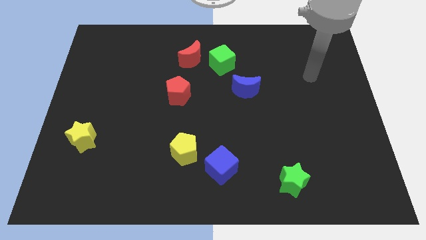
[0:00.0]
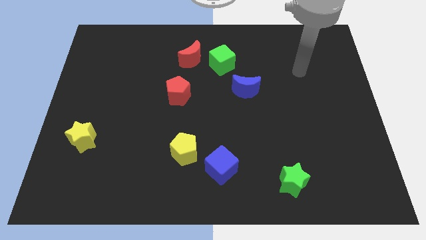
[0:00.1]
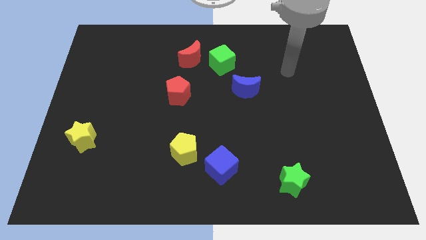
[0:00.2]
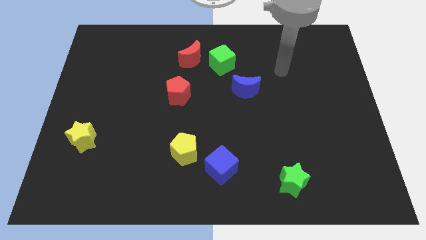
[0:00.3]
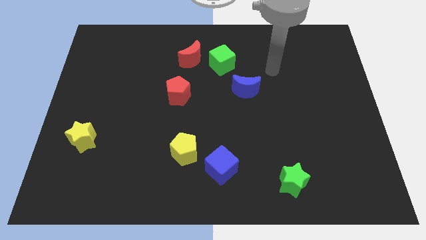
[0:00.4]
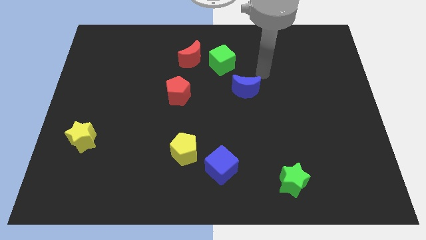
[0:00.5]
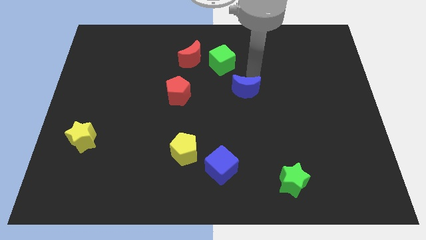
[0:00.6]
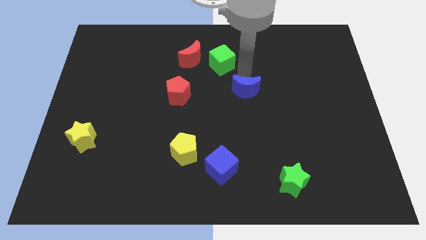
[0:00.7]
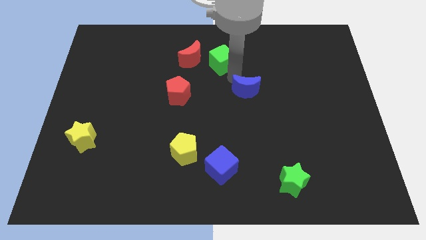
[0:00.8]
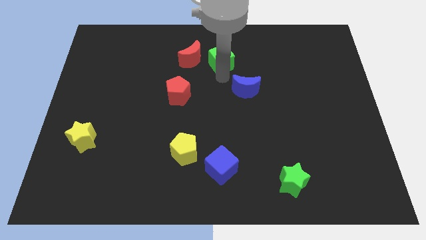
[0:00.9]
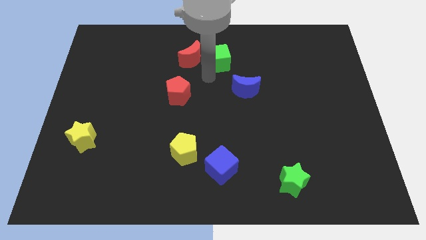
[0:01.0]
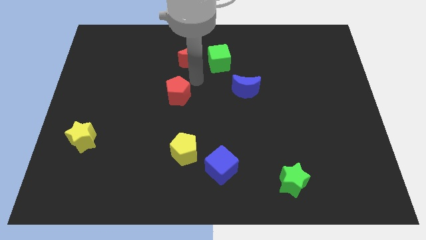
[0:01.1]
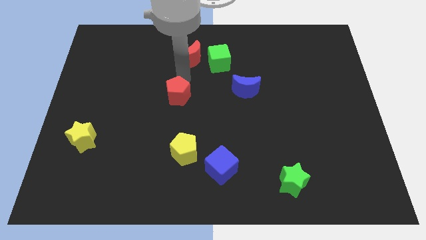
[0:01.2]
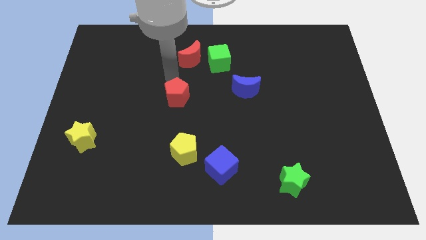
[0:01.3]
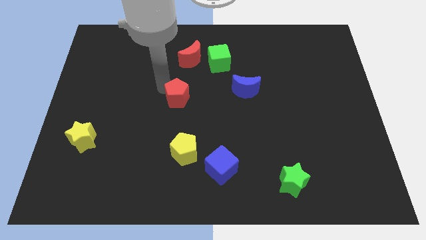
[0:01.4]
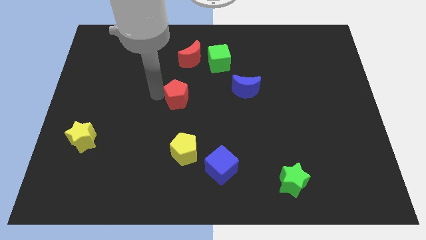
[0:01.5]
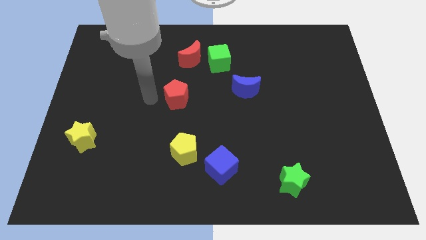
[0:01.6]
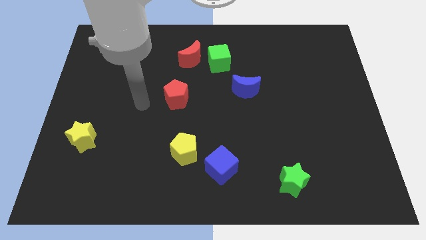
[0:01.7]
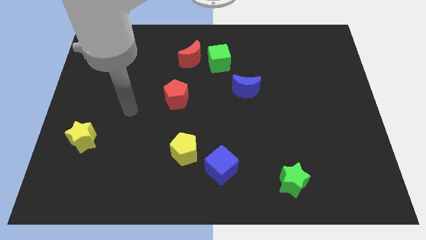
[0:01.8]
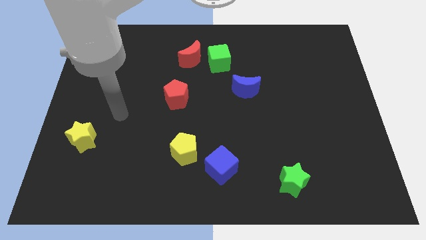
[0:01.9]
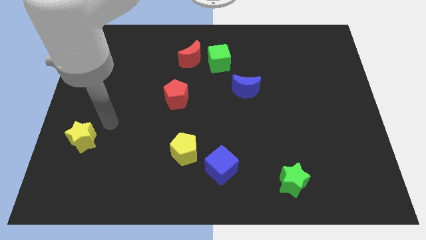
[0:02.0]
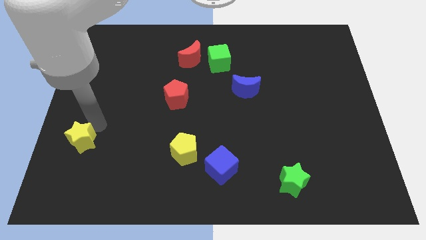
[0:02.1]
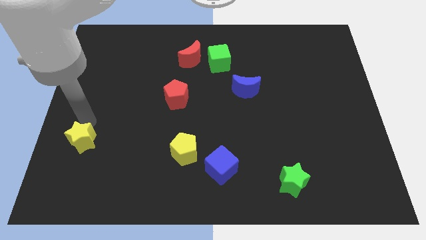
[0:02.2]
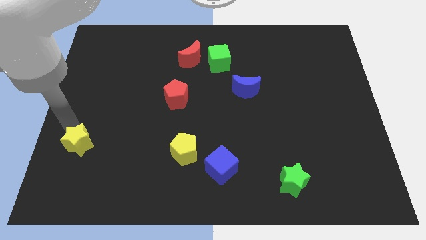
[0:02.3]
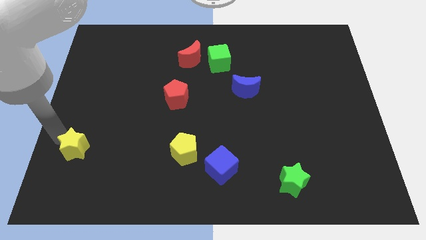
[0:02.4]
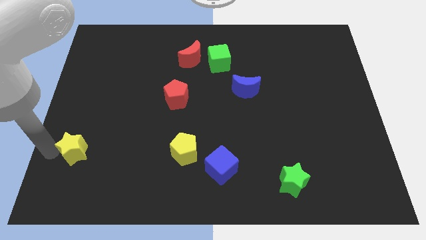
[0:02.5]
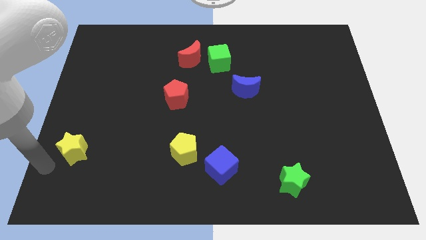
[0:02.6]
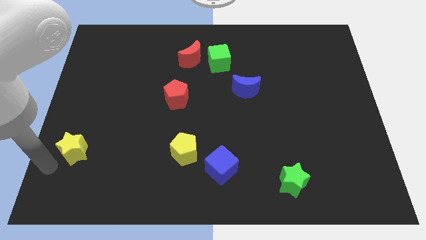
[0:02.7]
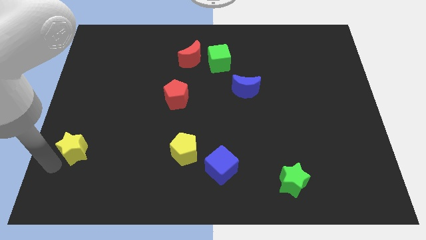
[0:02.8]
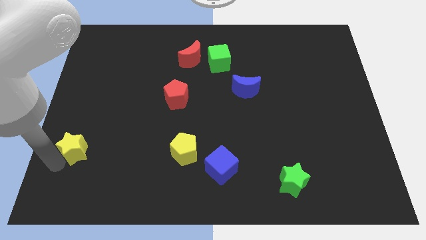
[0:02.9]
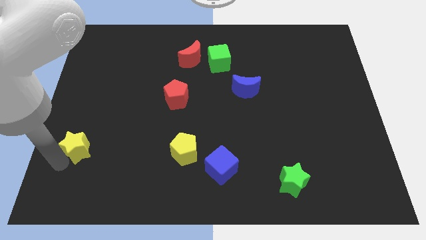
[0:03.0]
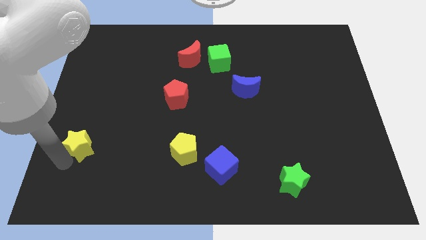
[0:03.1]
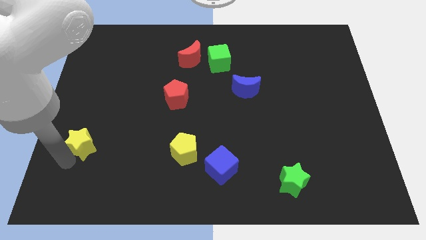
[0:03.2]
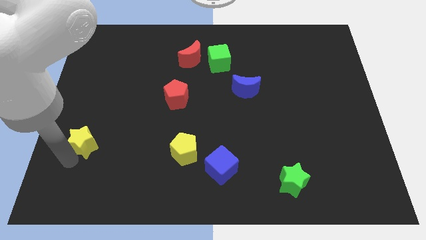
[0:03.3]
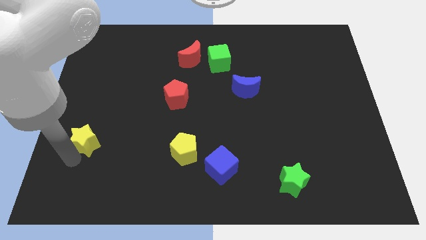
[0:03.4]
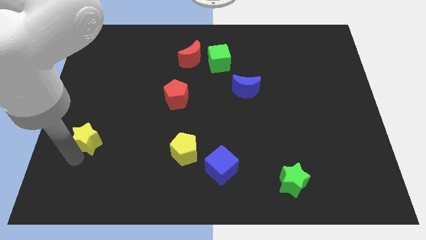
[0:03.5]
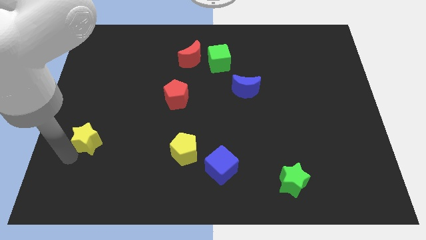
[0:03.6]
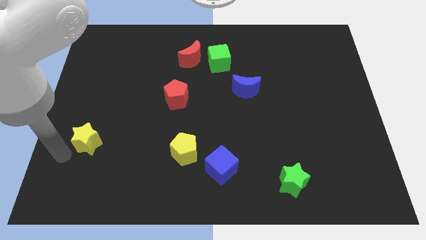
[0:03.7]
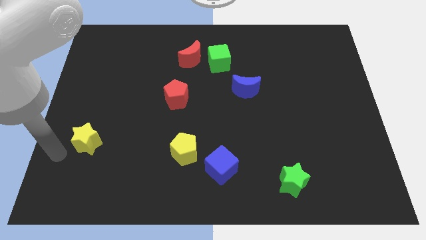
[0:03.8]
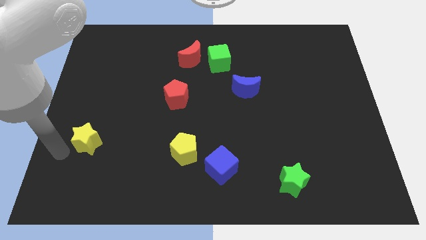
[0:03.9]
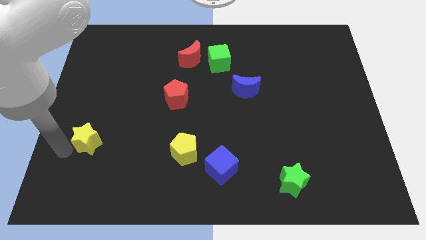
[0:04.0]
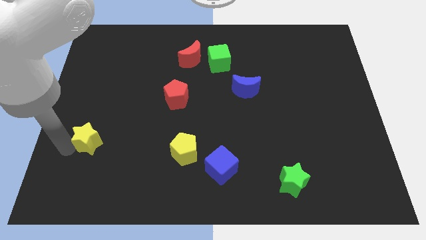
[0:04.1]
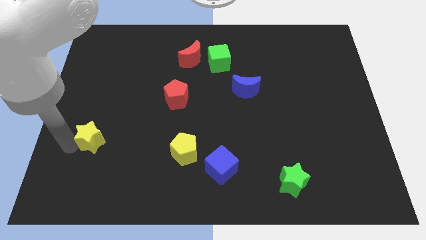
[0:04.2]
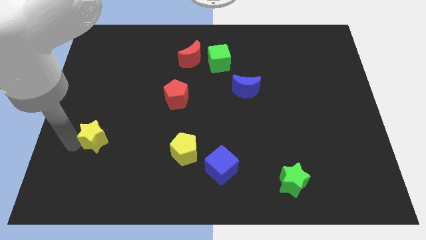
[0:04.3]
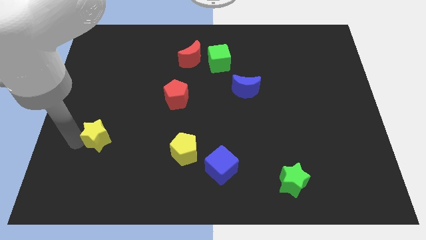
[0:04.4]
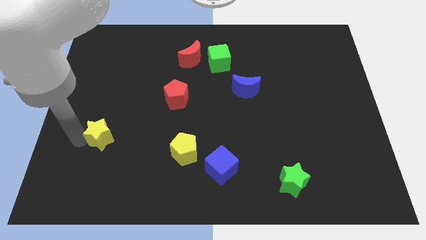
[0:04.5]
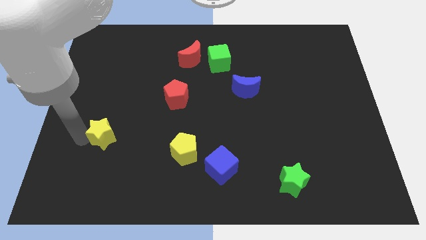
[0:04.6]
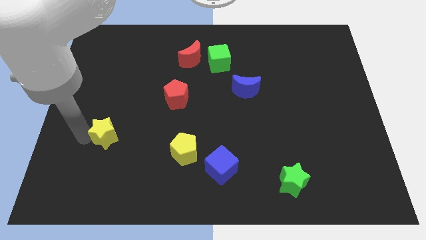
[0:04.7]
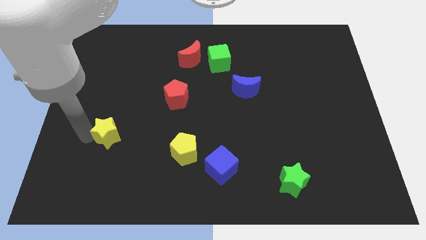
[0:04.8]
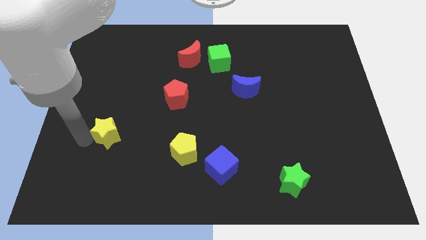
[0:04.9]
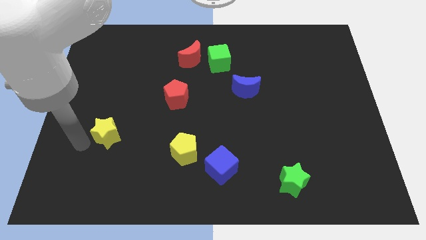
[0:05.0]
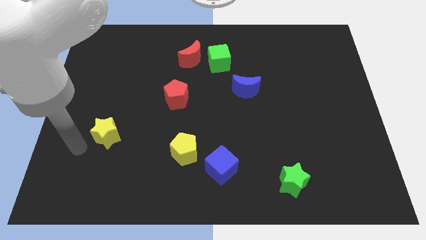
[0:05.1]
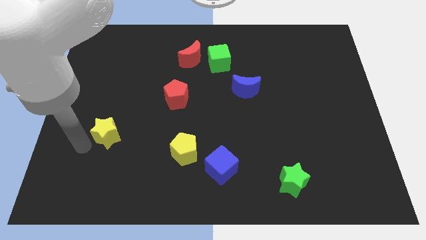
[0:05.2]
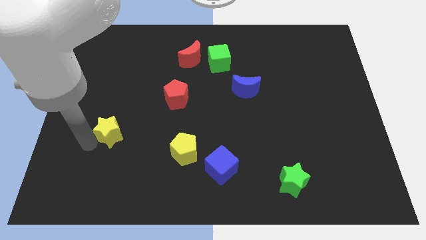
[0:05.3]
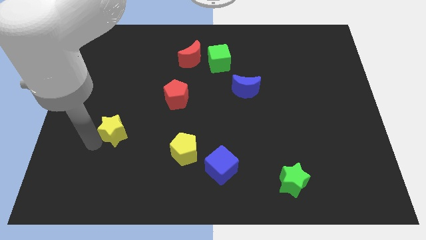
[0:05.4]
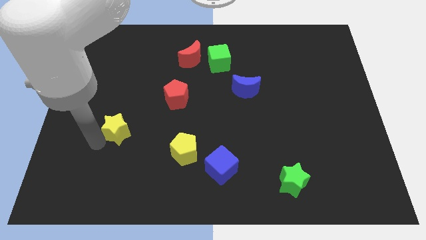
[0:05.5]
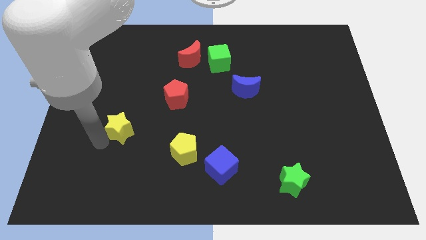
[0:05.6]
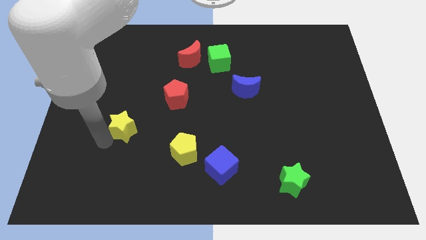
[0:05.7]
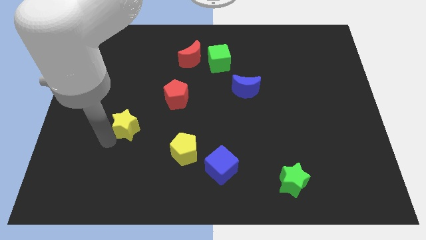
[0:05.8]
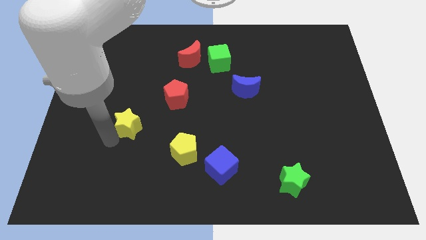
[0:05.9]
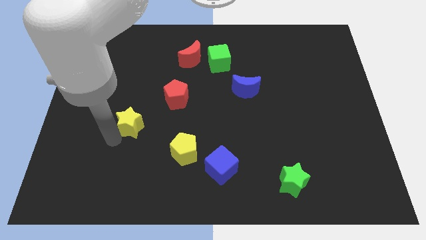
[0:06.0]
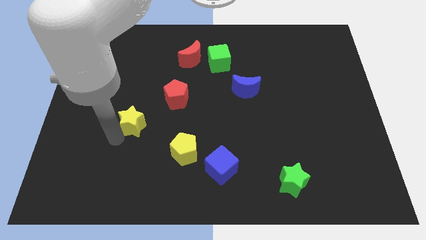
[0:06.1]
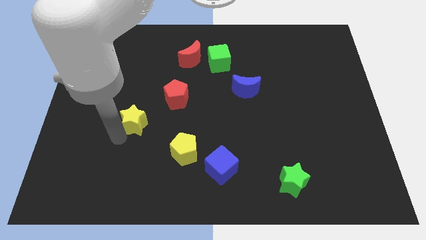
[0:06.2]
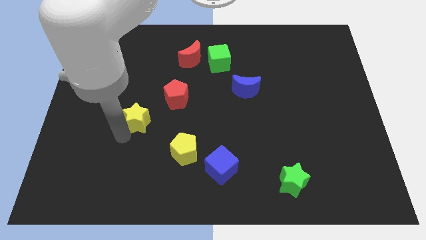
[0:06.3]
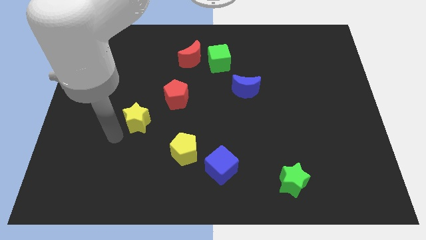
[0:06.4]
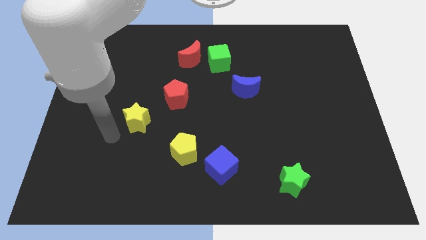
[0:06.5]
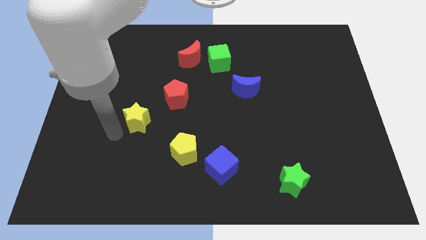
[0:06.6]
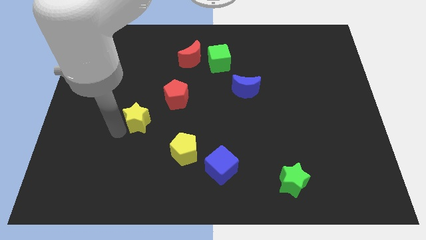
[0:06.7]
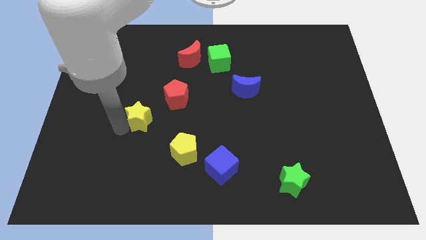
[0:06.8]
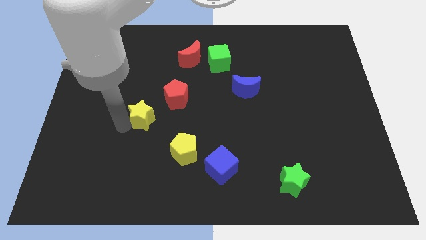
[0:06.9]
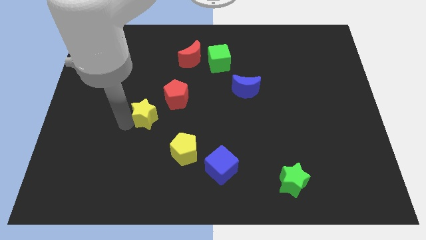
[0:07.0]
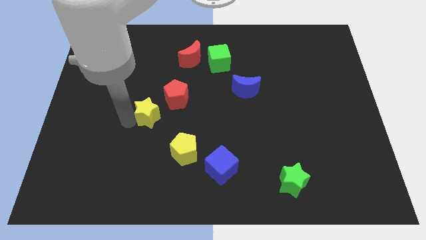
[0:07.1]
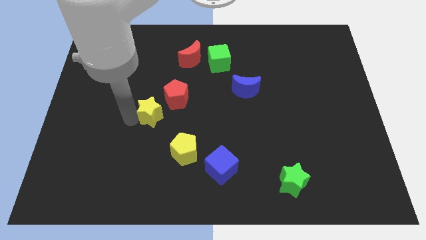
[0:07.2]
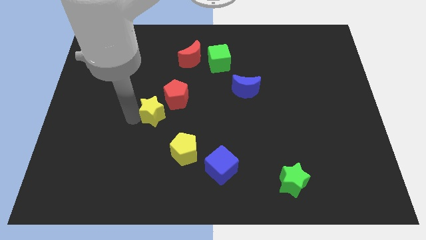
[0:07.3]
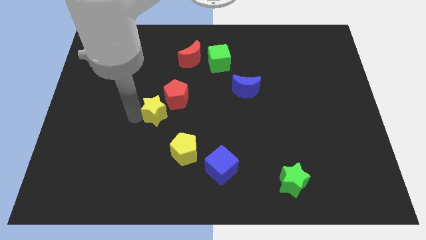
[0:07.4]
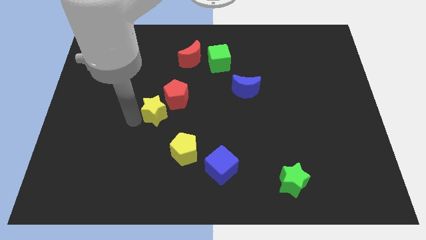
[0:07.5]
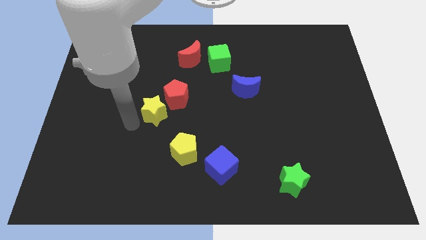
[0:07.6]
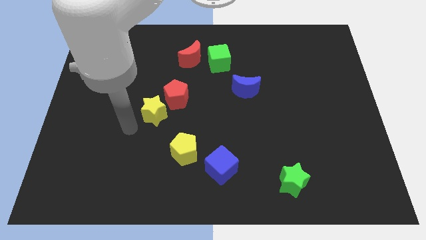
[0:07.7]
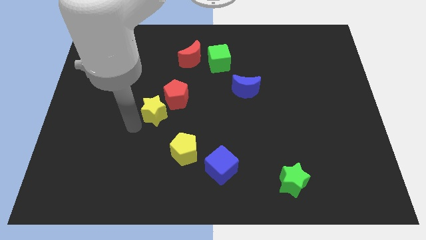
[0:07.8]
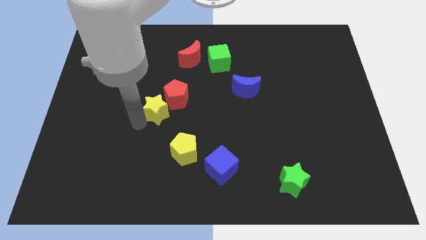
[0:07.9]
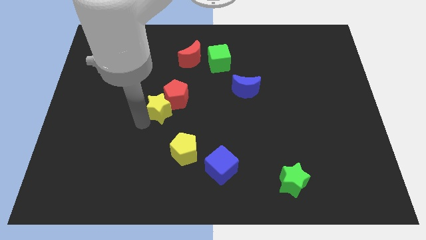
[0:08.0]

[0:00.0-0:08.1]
push the yellow star towards the red pentagon
